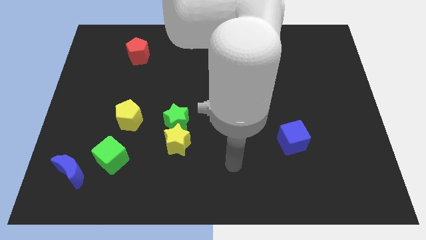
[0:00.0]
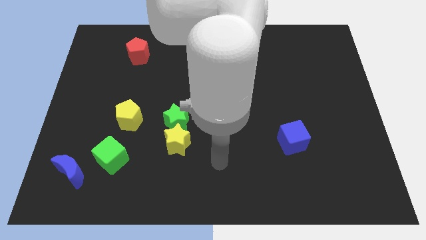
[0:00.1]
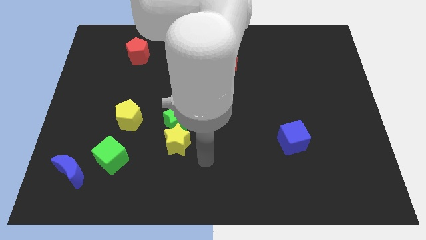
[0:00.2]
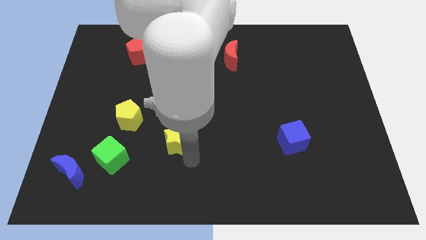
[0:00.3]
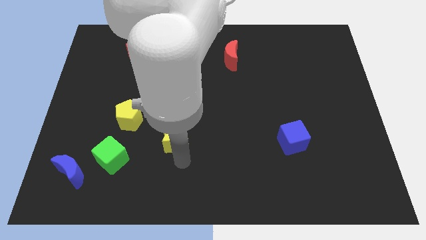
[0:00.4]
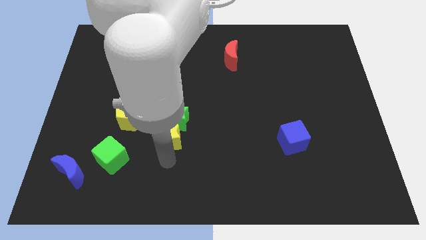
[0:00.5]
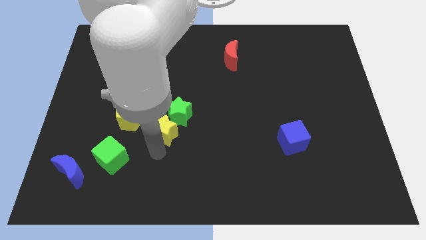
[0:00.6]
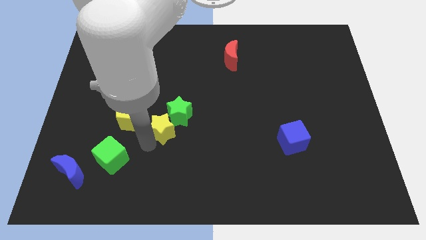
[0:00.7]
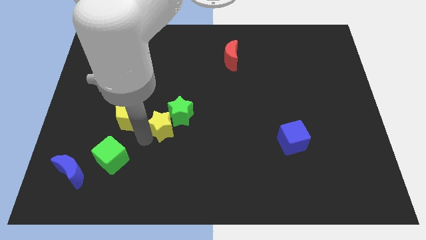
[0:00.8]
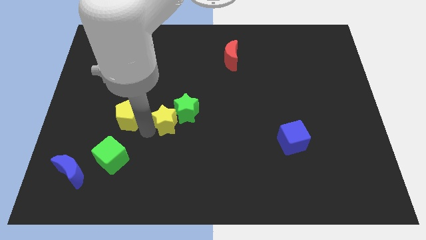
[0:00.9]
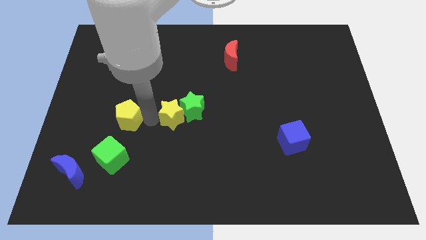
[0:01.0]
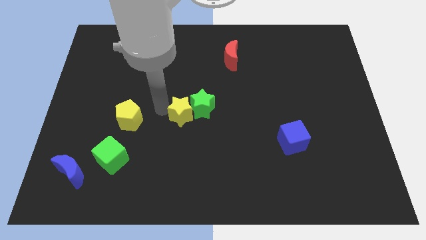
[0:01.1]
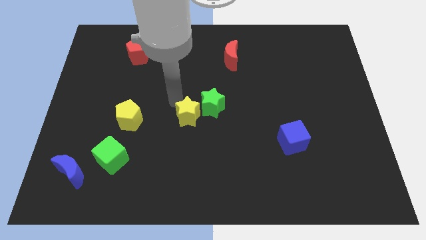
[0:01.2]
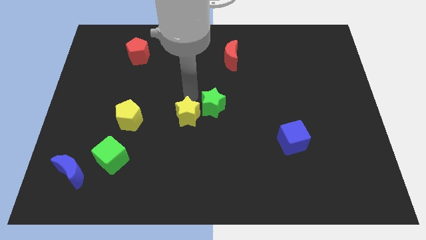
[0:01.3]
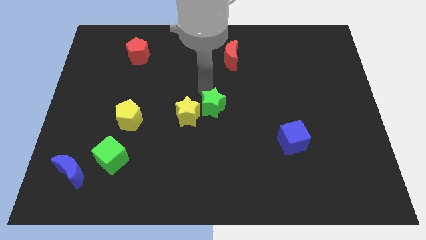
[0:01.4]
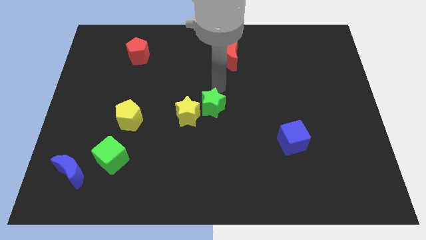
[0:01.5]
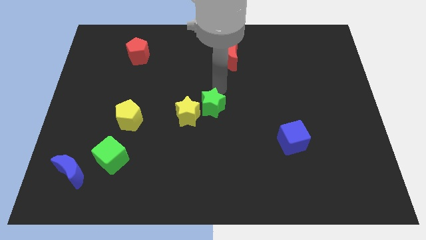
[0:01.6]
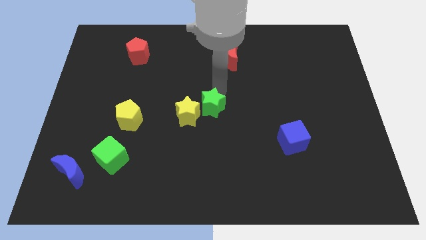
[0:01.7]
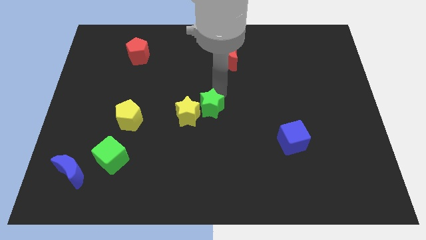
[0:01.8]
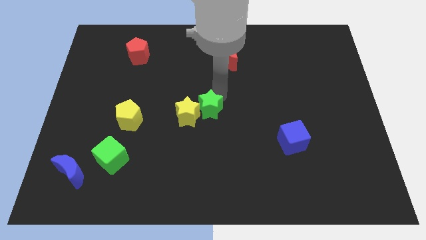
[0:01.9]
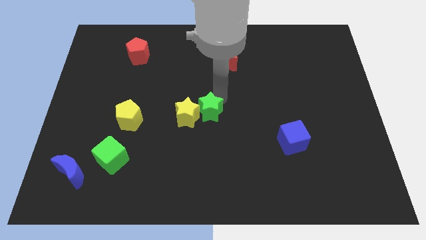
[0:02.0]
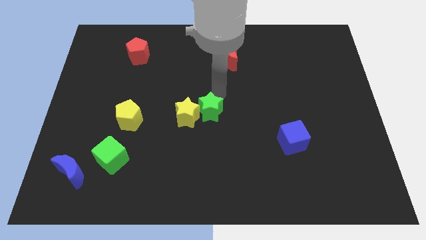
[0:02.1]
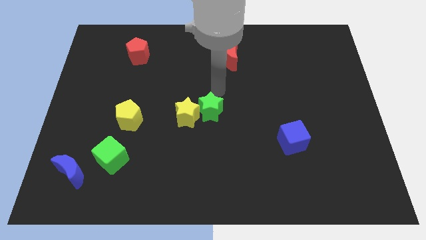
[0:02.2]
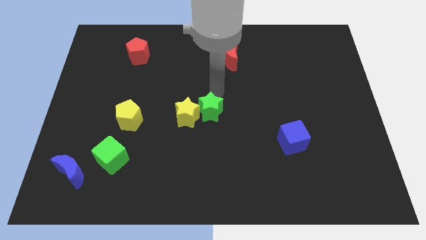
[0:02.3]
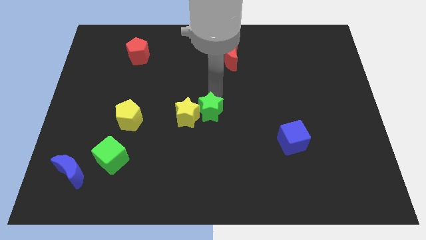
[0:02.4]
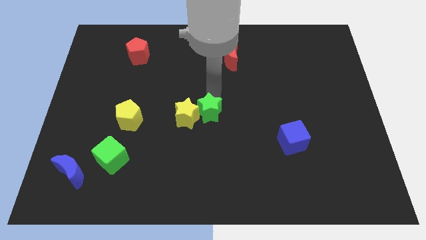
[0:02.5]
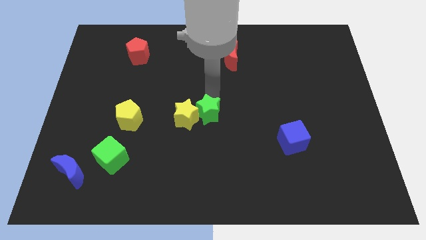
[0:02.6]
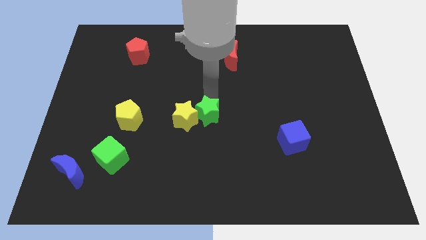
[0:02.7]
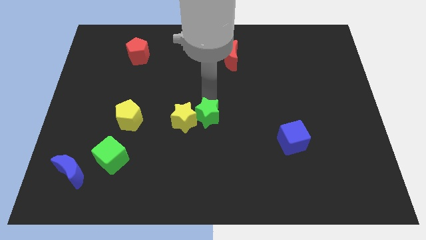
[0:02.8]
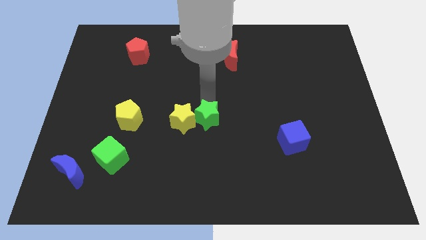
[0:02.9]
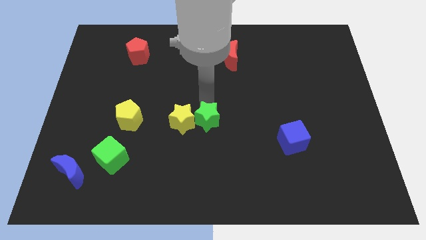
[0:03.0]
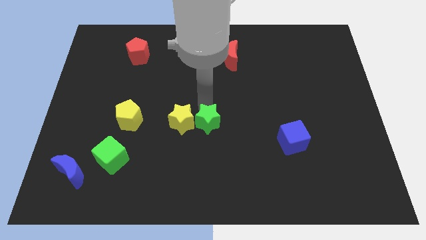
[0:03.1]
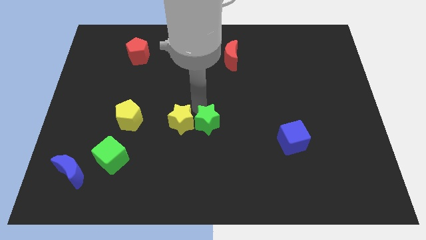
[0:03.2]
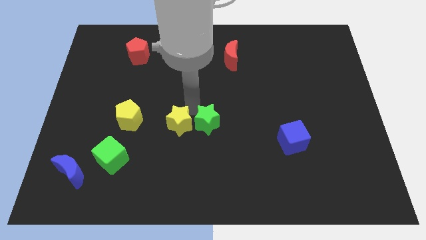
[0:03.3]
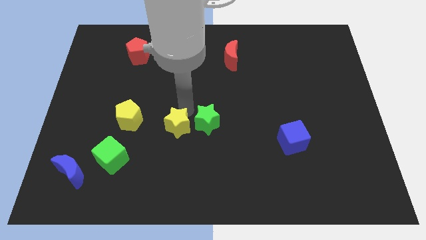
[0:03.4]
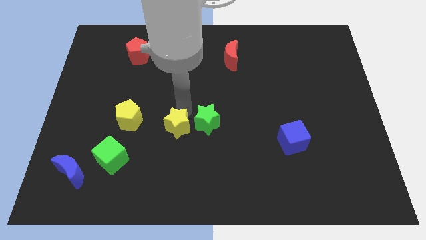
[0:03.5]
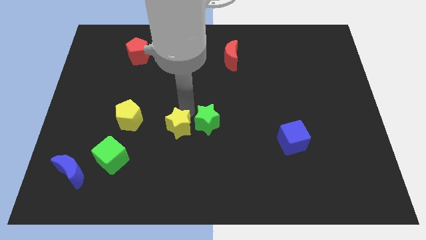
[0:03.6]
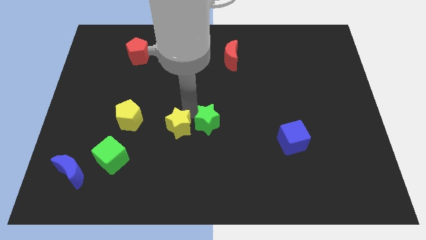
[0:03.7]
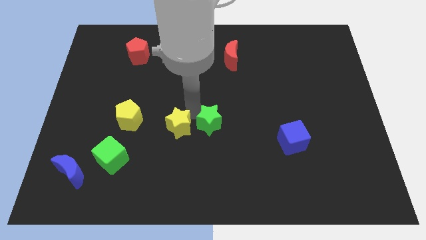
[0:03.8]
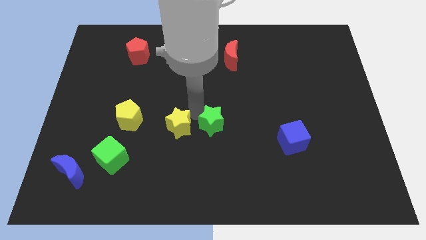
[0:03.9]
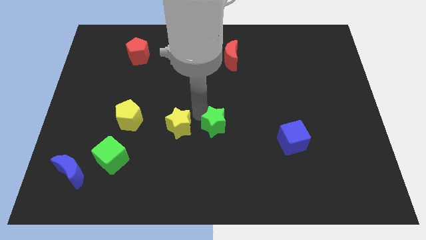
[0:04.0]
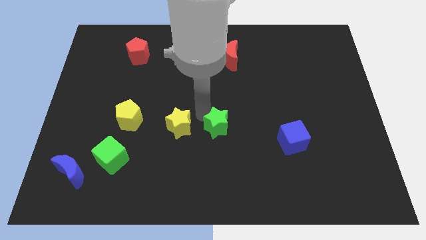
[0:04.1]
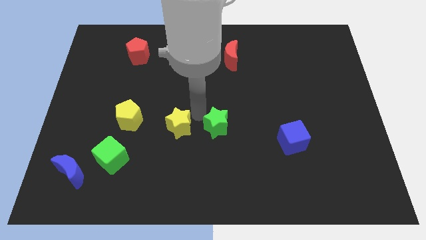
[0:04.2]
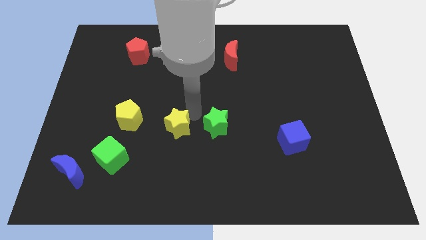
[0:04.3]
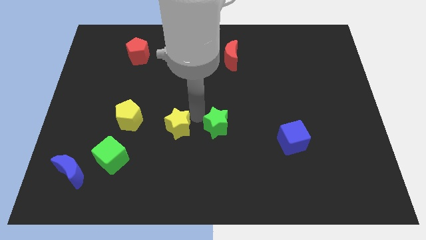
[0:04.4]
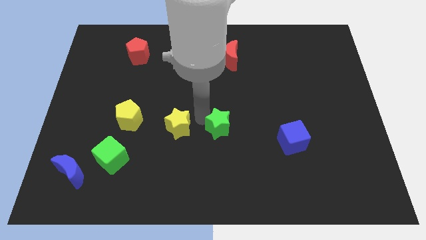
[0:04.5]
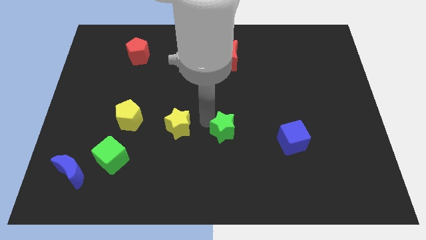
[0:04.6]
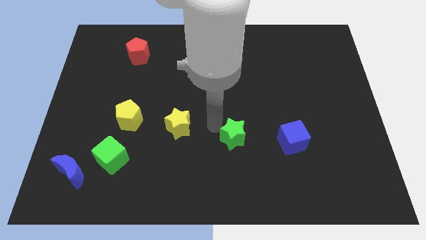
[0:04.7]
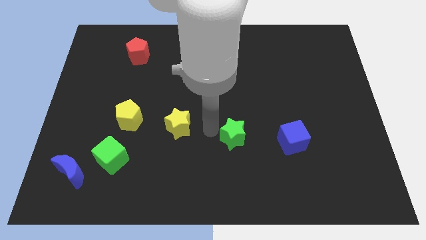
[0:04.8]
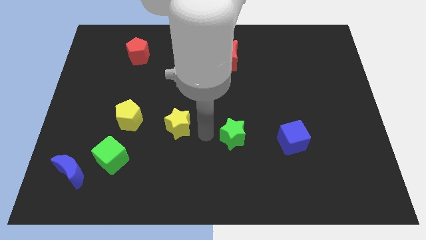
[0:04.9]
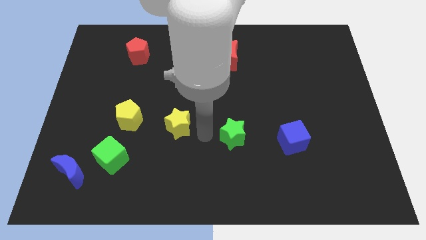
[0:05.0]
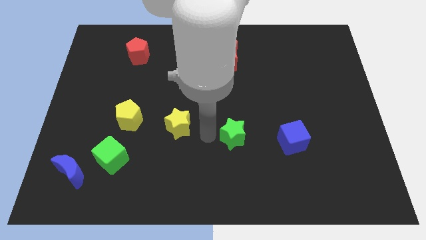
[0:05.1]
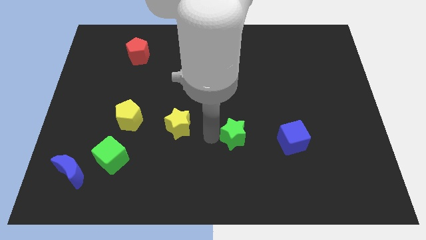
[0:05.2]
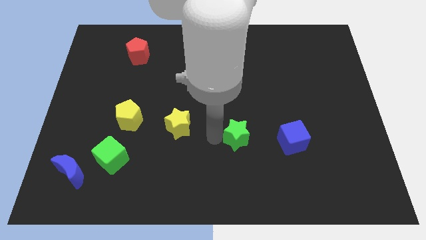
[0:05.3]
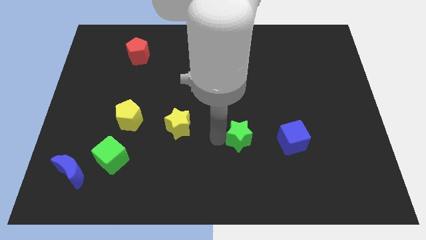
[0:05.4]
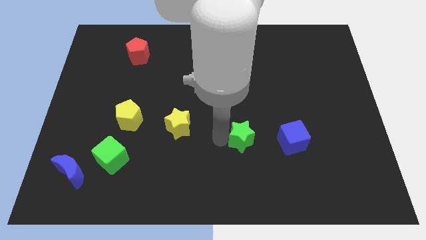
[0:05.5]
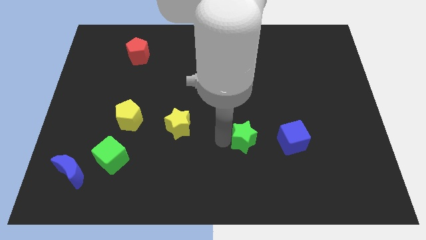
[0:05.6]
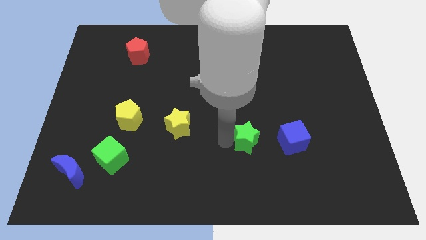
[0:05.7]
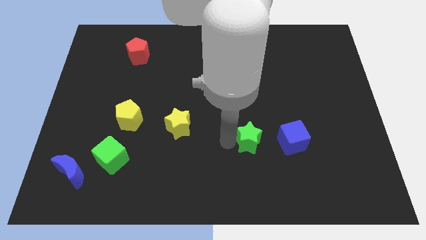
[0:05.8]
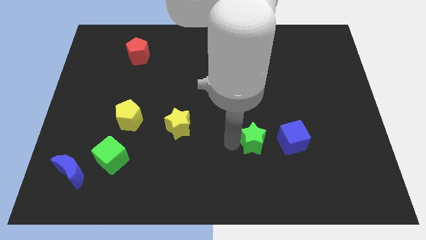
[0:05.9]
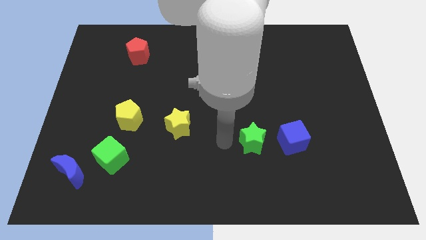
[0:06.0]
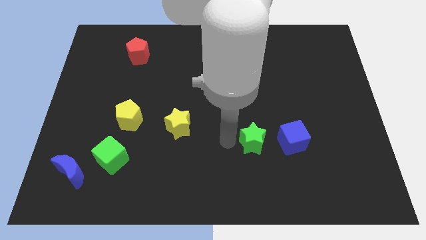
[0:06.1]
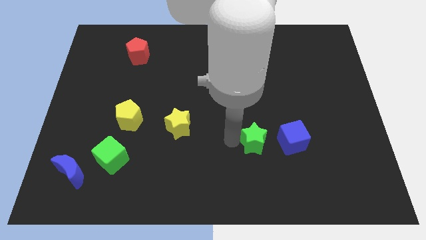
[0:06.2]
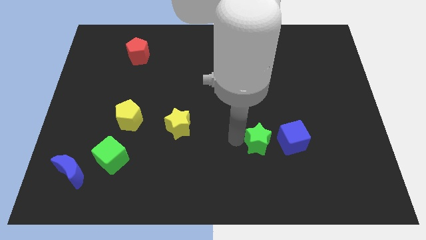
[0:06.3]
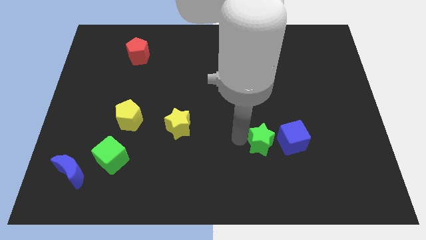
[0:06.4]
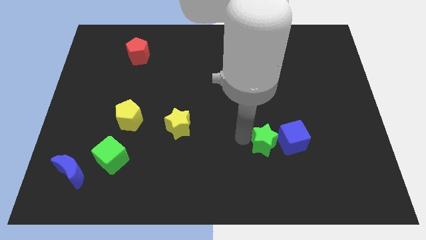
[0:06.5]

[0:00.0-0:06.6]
slide the green star next to the blue cube

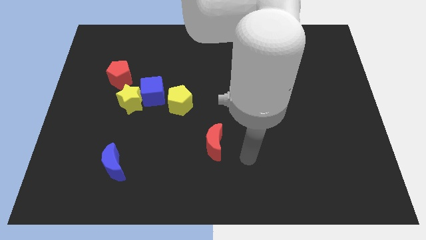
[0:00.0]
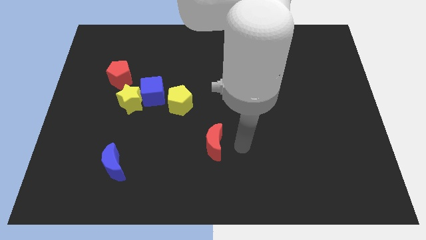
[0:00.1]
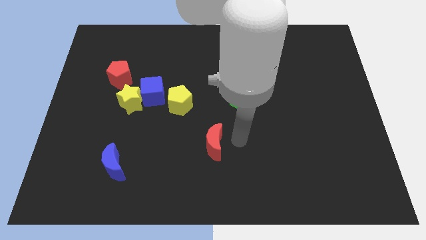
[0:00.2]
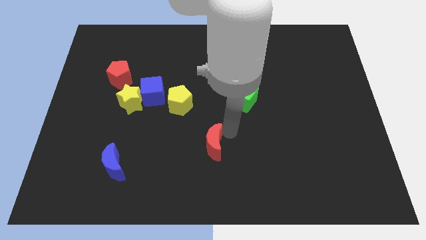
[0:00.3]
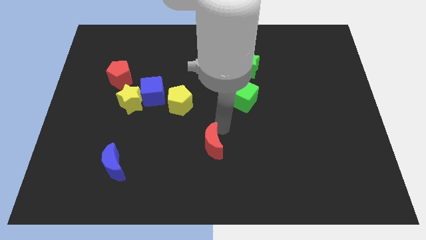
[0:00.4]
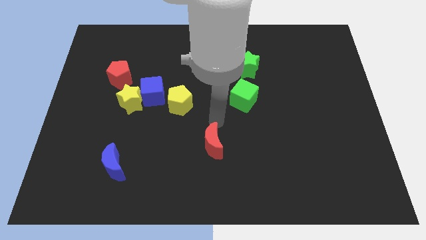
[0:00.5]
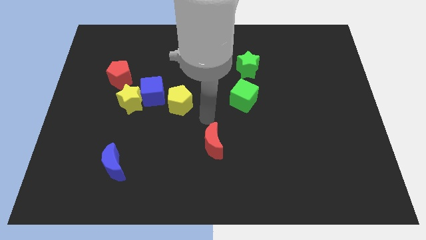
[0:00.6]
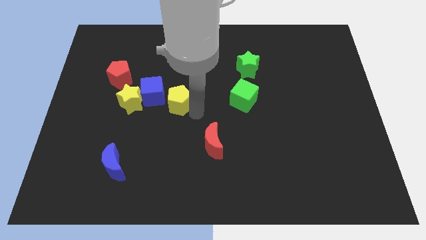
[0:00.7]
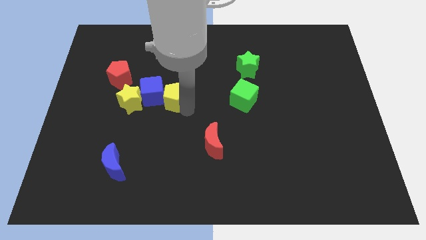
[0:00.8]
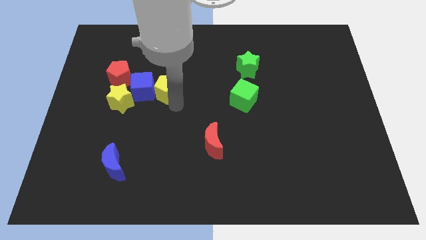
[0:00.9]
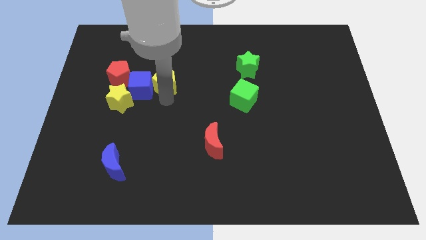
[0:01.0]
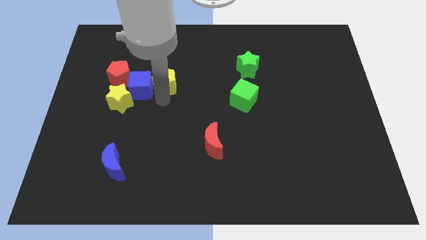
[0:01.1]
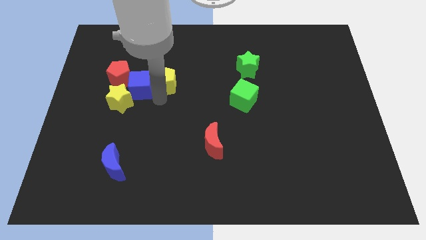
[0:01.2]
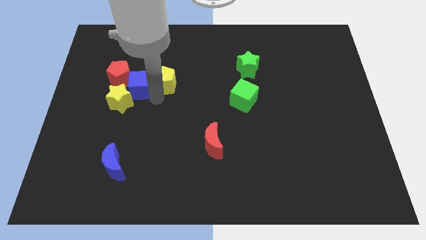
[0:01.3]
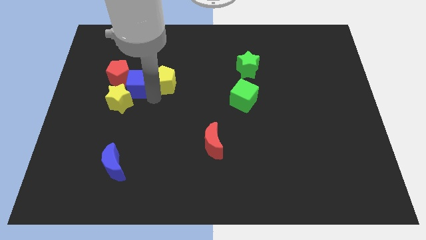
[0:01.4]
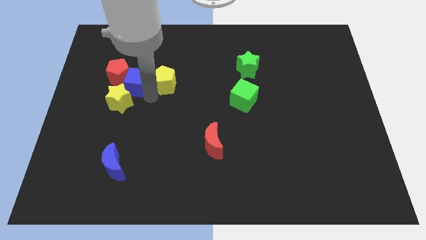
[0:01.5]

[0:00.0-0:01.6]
put the blue cube next to the red pentagon
